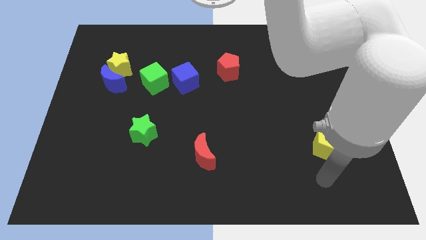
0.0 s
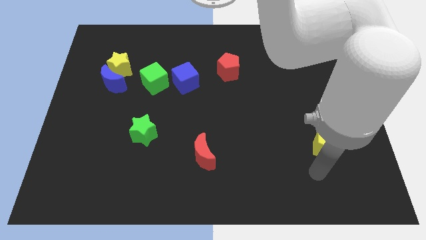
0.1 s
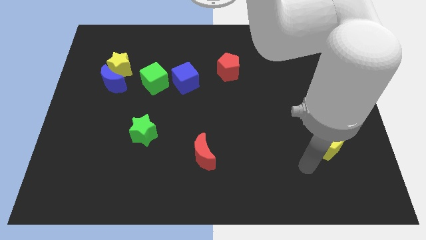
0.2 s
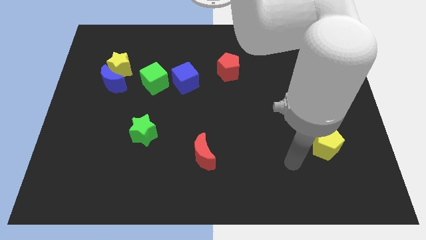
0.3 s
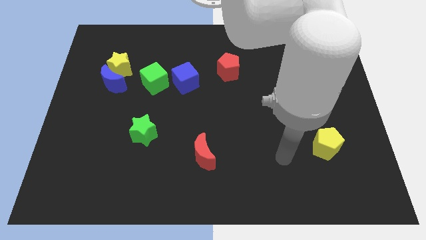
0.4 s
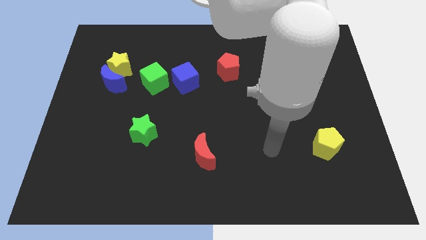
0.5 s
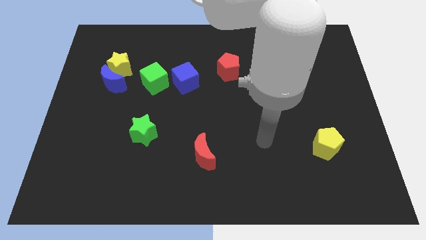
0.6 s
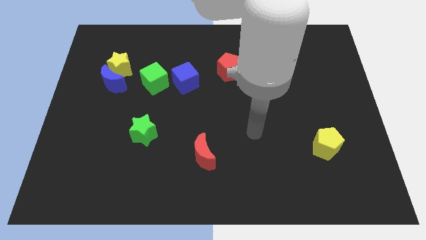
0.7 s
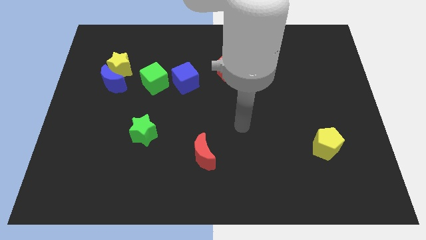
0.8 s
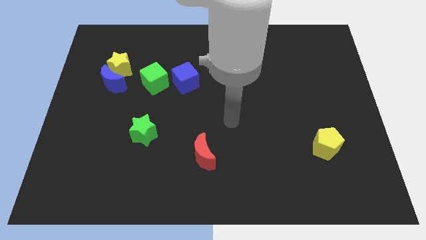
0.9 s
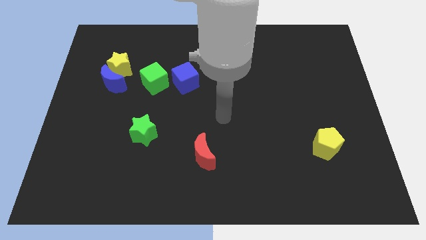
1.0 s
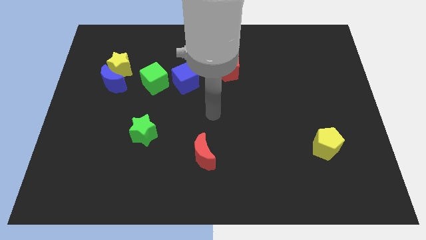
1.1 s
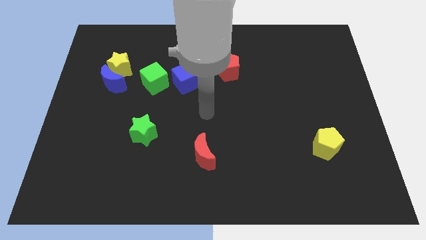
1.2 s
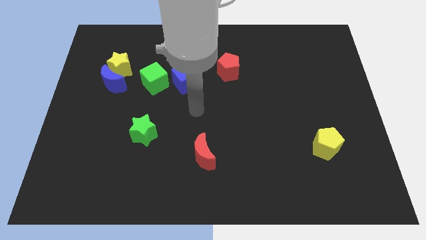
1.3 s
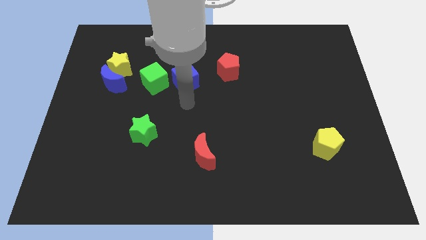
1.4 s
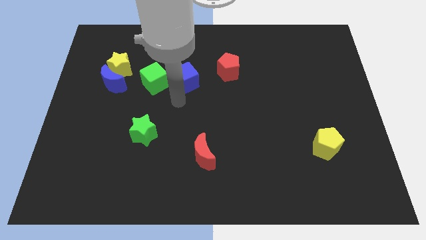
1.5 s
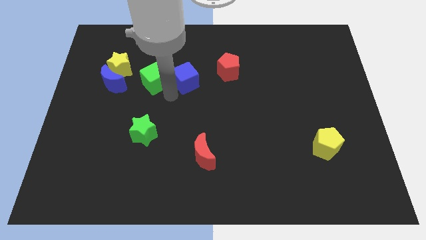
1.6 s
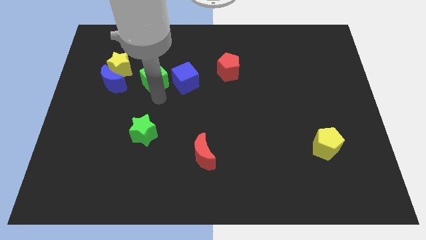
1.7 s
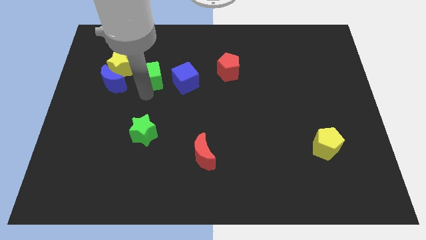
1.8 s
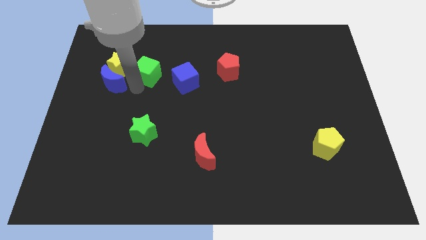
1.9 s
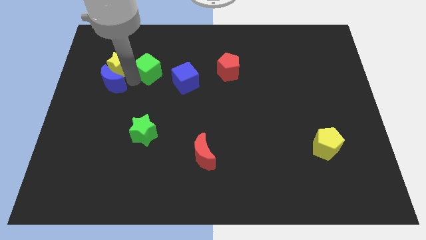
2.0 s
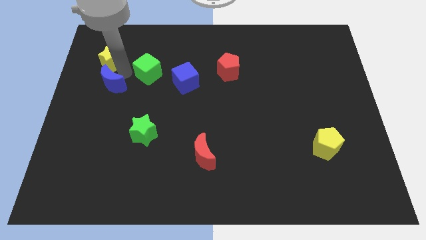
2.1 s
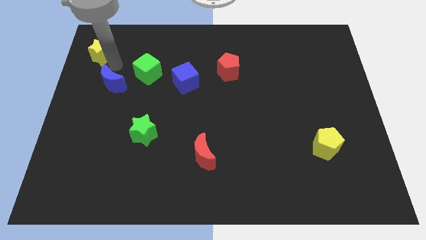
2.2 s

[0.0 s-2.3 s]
move the blue moon away from the yellow star

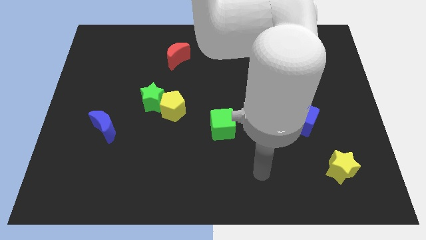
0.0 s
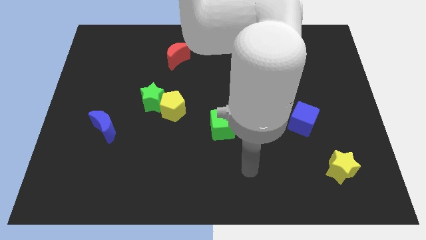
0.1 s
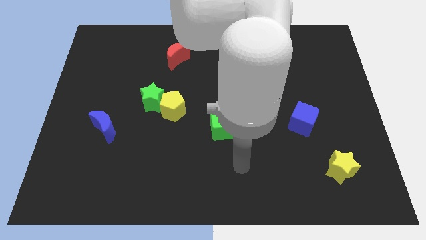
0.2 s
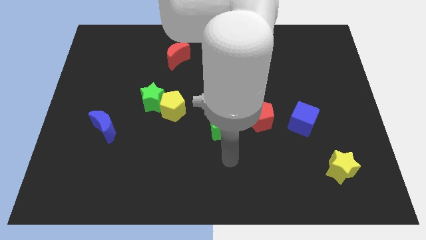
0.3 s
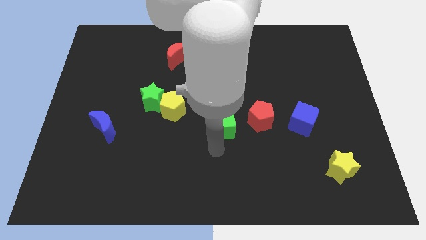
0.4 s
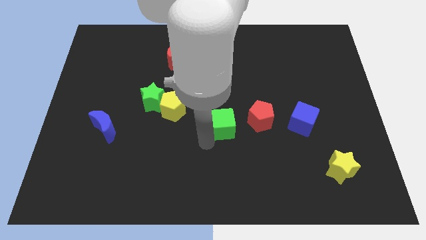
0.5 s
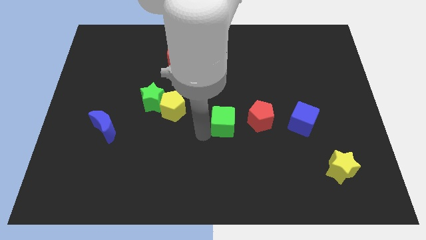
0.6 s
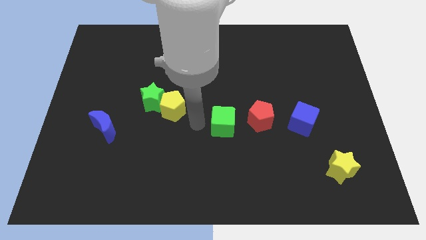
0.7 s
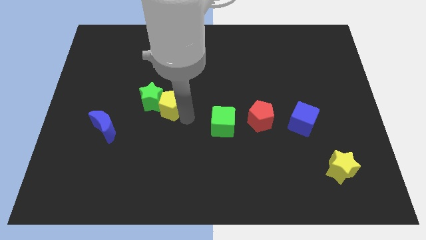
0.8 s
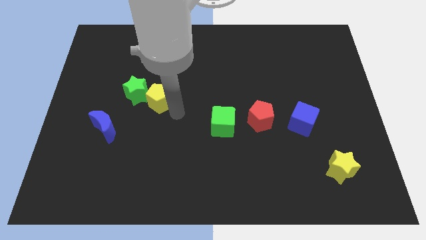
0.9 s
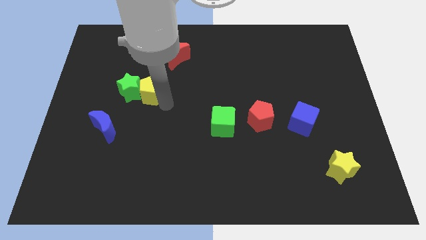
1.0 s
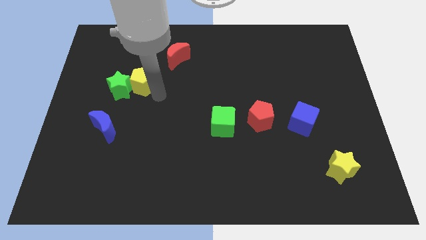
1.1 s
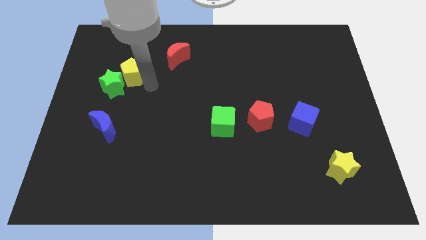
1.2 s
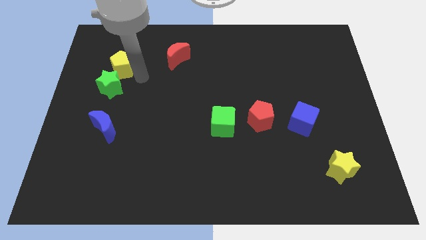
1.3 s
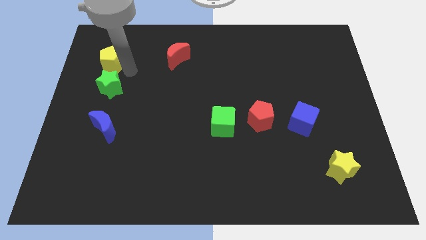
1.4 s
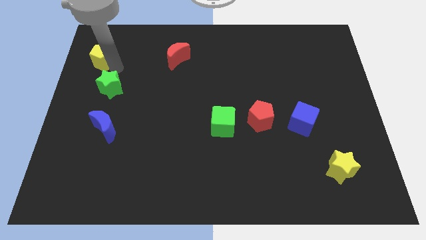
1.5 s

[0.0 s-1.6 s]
separate the green star from the yellow pentagon

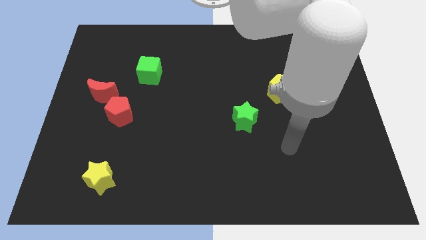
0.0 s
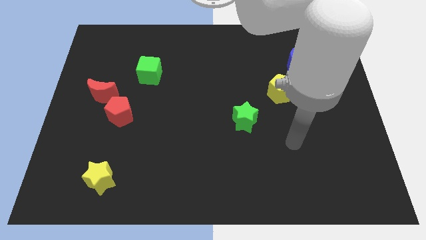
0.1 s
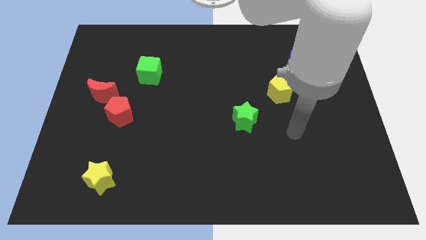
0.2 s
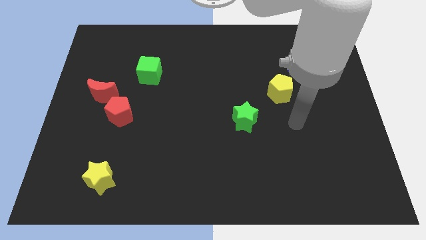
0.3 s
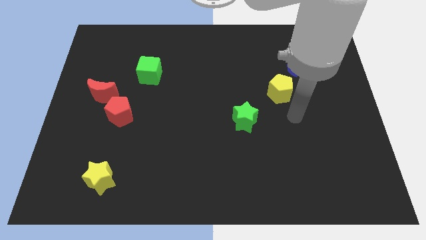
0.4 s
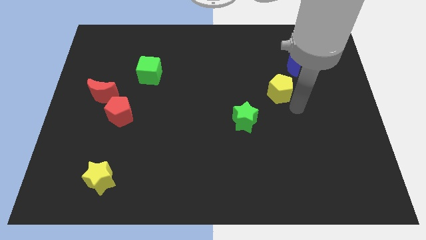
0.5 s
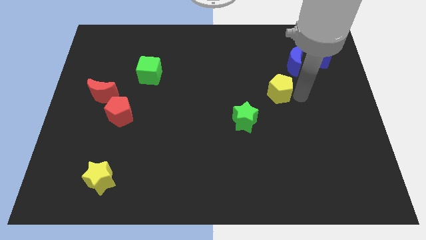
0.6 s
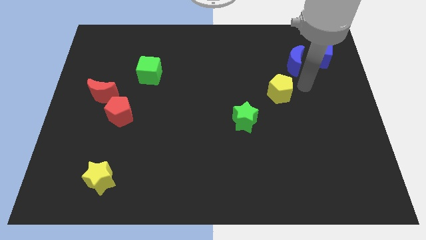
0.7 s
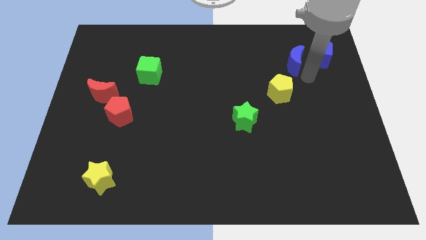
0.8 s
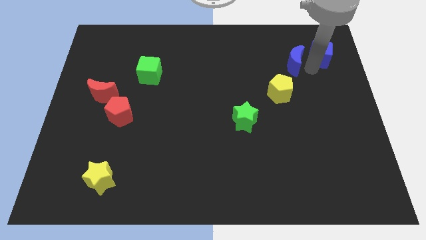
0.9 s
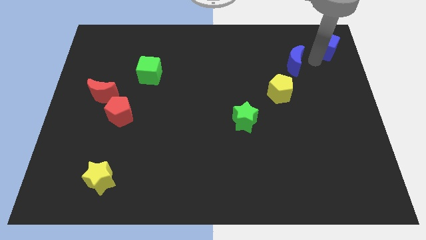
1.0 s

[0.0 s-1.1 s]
separate the blue moon from the blue cube

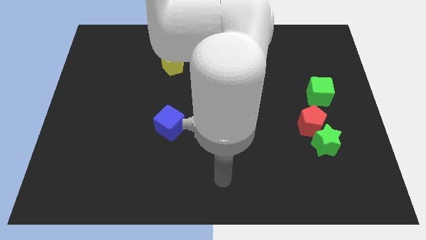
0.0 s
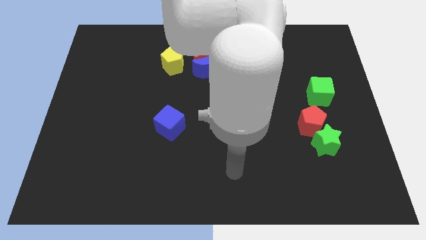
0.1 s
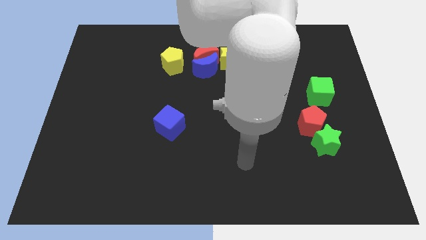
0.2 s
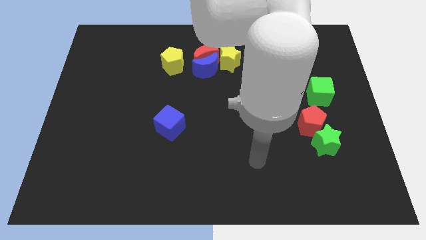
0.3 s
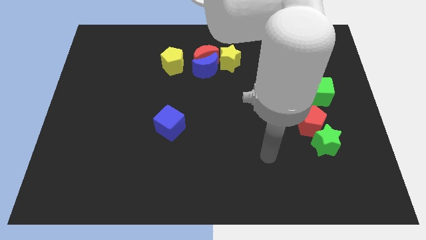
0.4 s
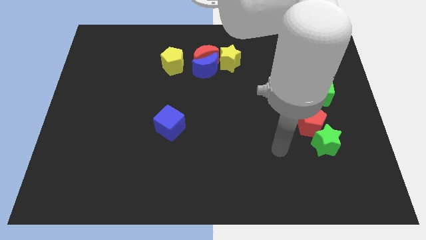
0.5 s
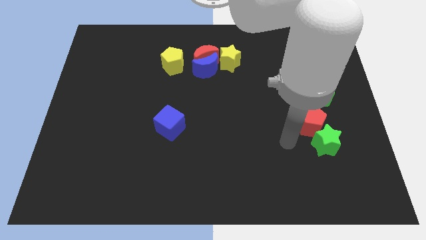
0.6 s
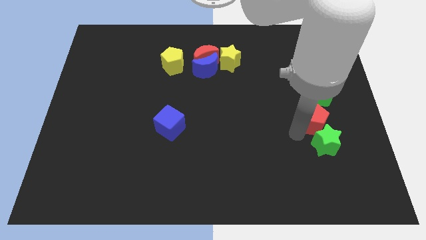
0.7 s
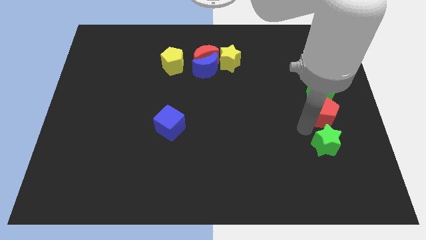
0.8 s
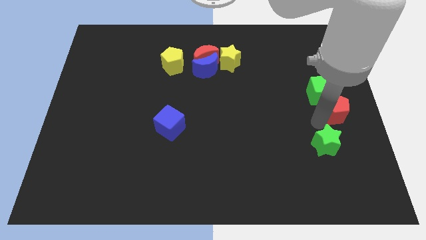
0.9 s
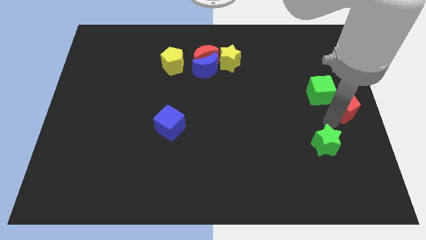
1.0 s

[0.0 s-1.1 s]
move the green star away from the red pentagon

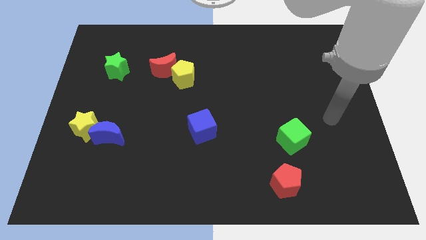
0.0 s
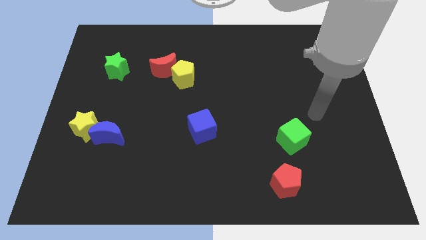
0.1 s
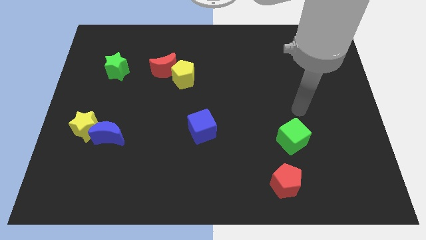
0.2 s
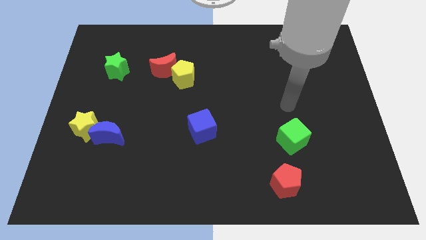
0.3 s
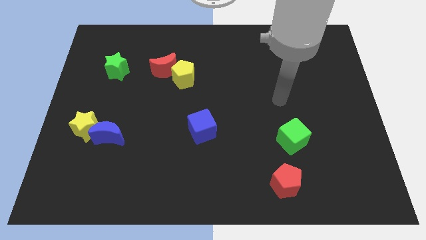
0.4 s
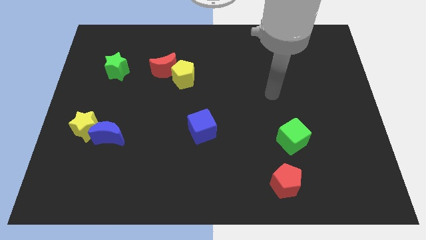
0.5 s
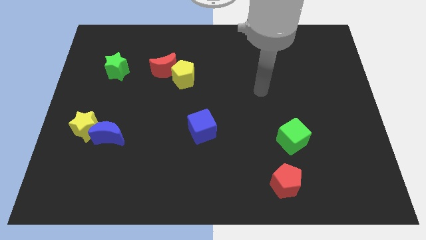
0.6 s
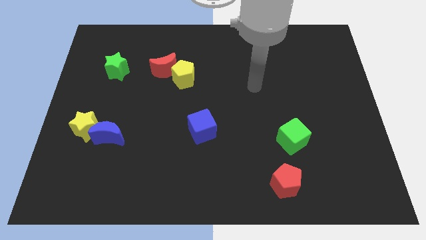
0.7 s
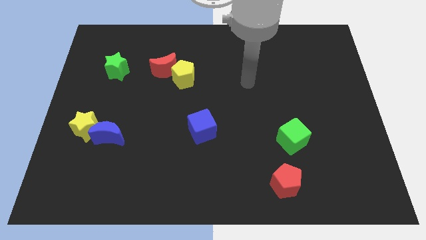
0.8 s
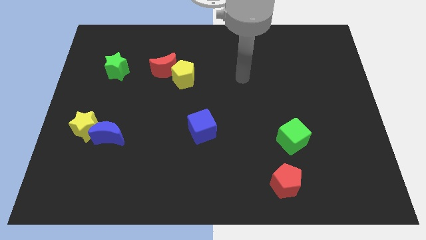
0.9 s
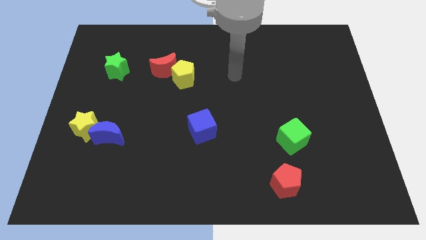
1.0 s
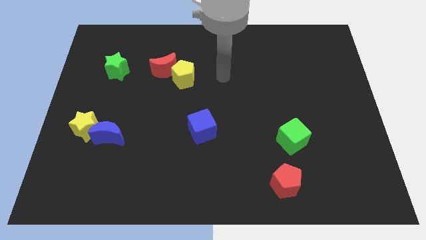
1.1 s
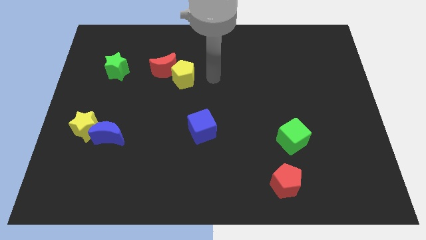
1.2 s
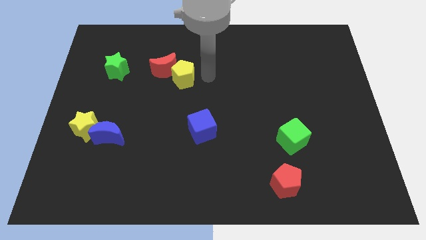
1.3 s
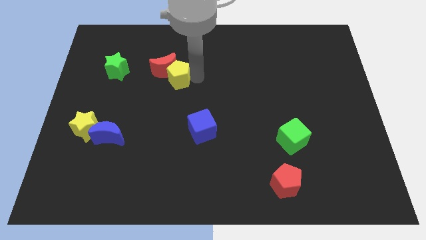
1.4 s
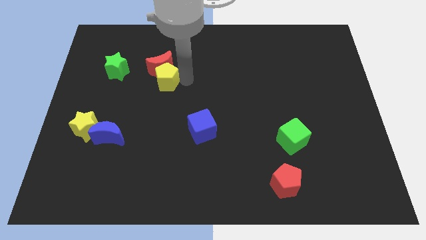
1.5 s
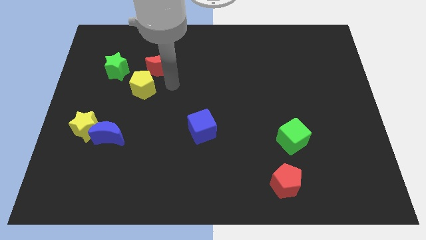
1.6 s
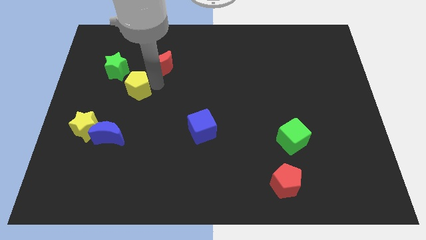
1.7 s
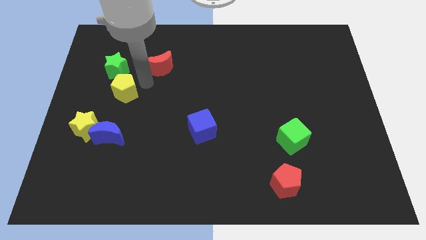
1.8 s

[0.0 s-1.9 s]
pull the red moon apart from the yellow pentagon

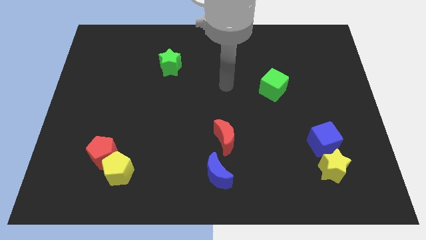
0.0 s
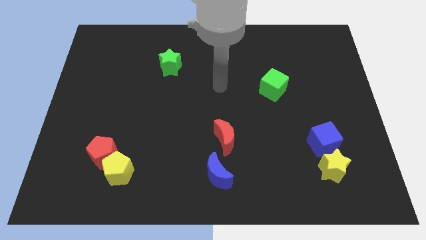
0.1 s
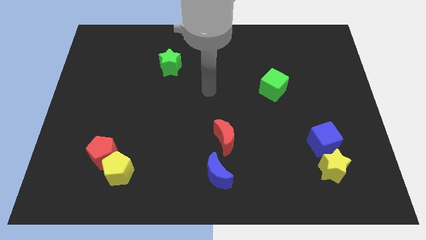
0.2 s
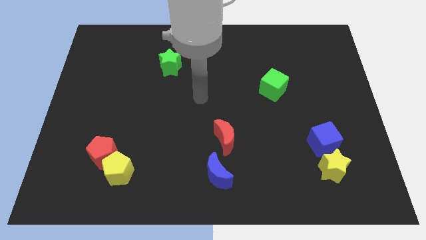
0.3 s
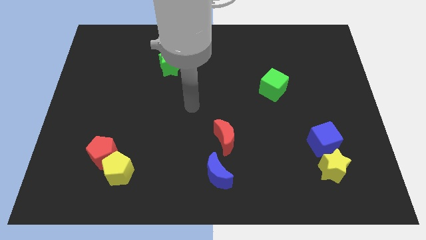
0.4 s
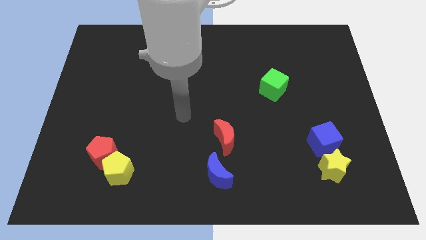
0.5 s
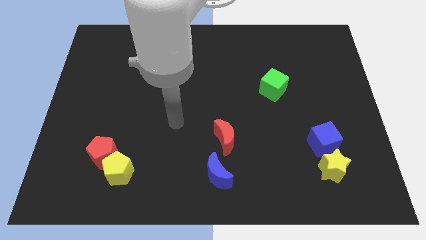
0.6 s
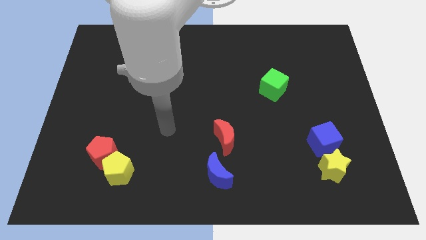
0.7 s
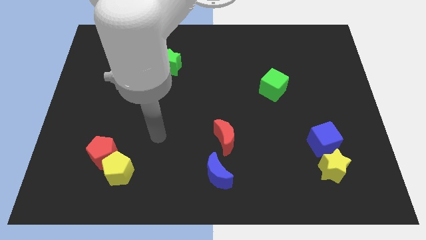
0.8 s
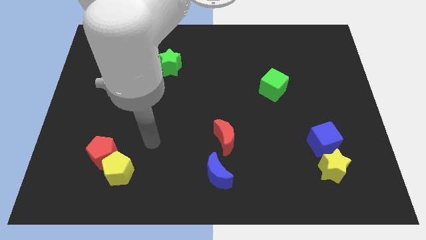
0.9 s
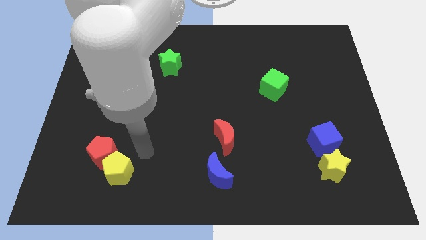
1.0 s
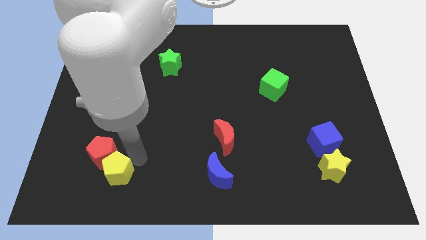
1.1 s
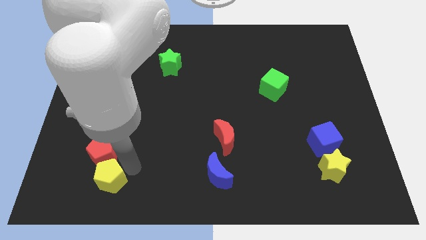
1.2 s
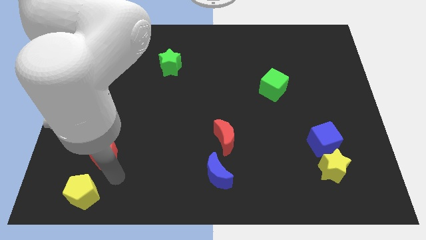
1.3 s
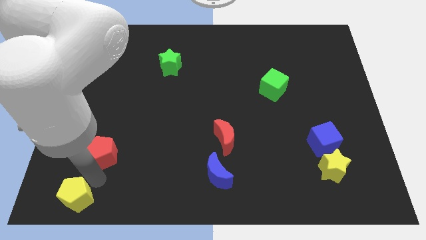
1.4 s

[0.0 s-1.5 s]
separate the red pentagon from the yellow pentagon
